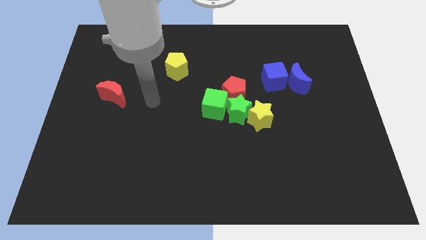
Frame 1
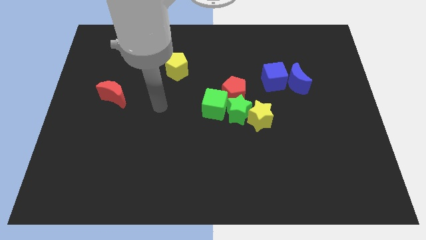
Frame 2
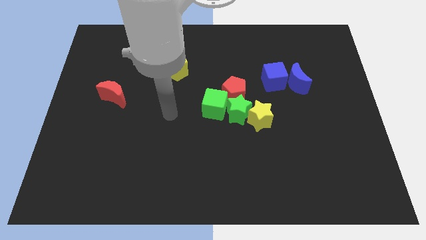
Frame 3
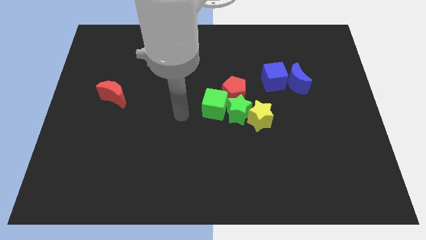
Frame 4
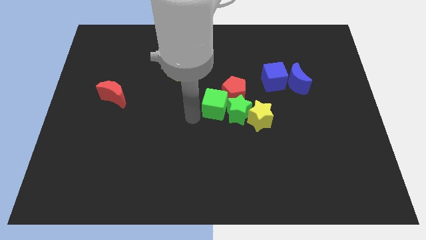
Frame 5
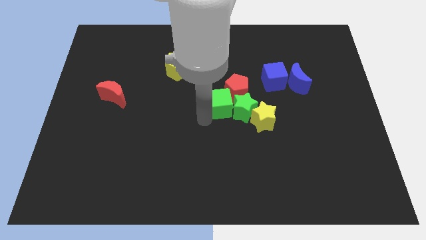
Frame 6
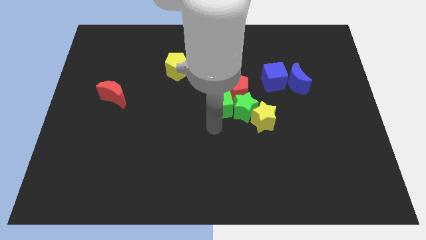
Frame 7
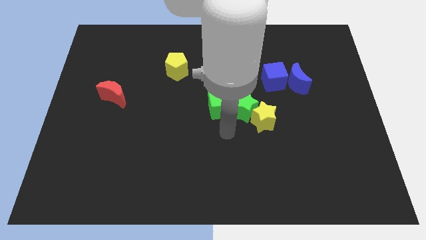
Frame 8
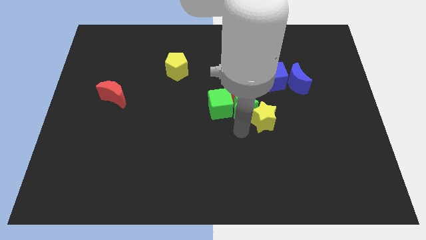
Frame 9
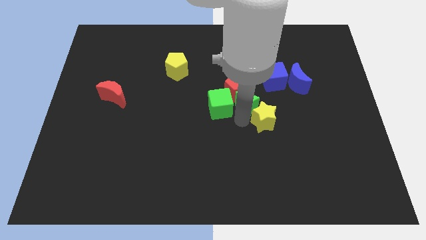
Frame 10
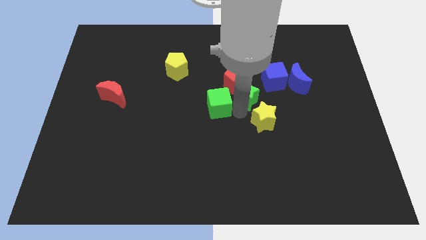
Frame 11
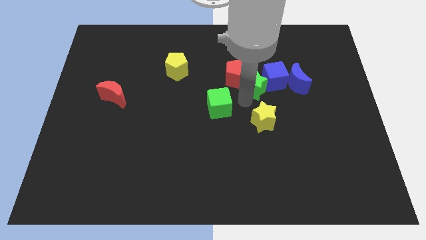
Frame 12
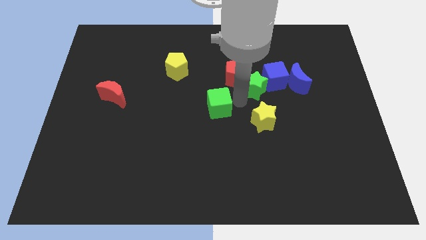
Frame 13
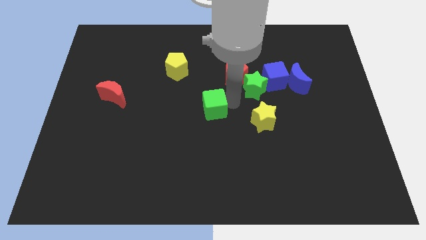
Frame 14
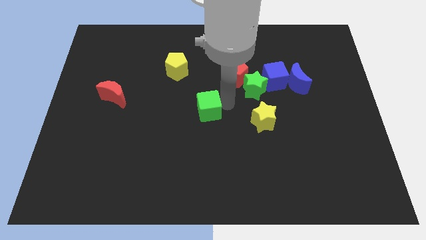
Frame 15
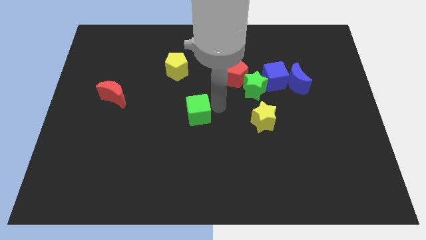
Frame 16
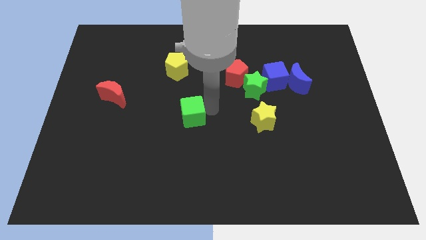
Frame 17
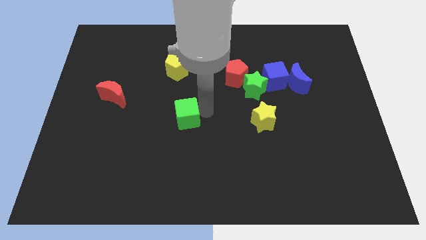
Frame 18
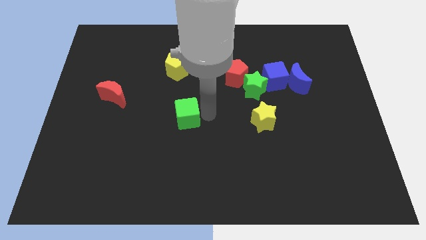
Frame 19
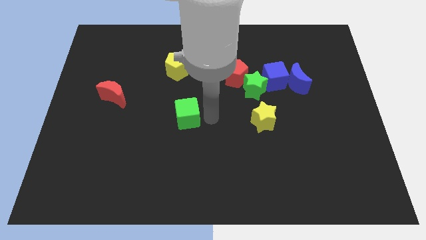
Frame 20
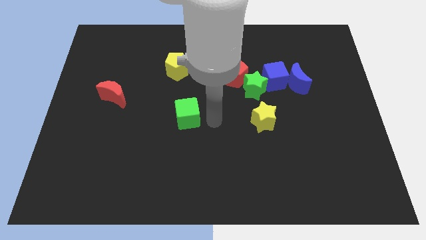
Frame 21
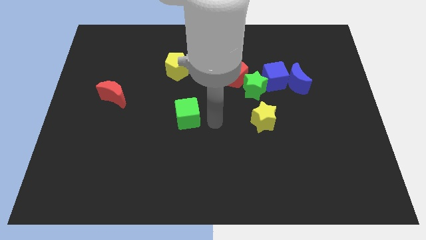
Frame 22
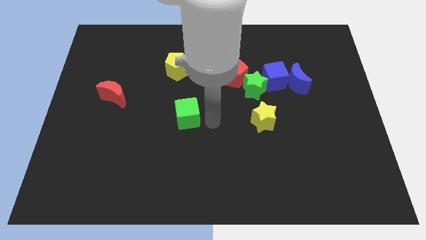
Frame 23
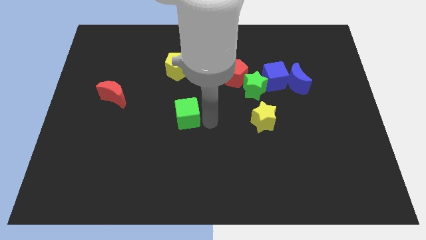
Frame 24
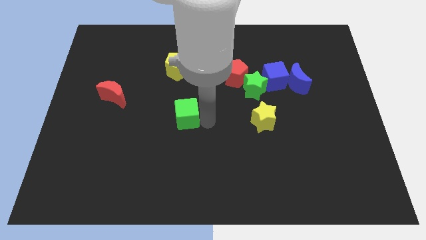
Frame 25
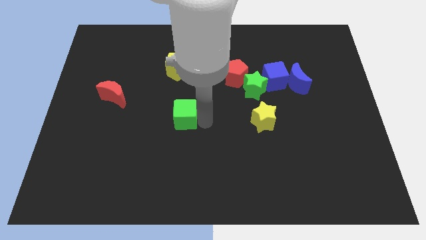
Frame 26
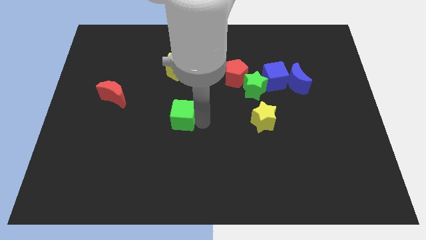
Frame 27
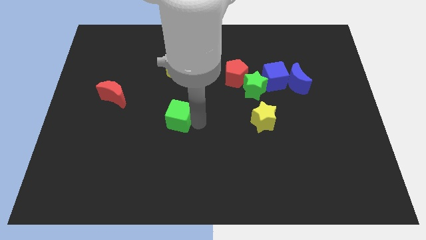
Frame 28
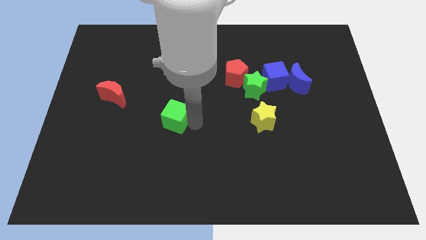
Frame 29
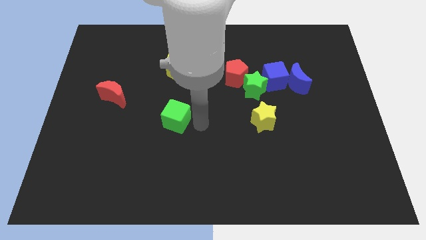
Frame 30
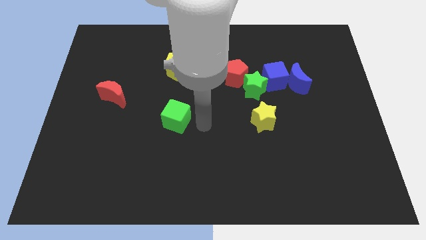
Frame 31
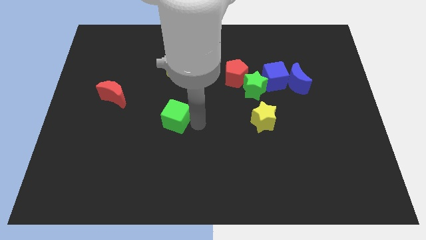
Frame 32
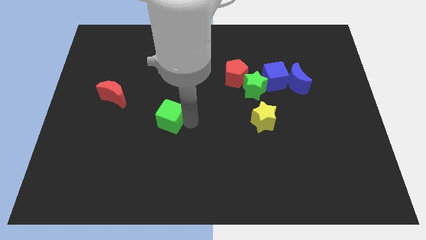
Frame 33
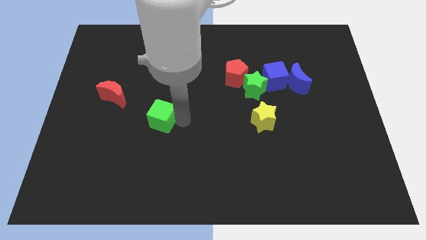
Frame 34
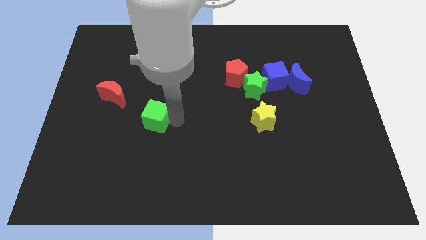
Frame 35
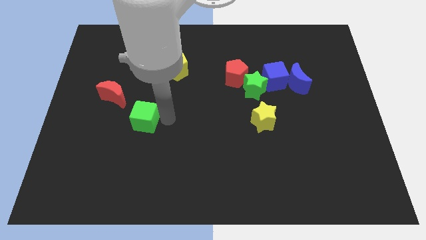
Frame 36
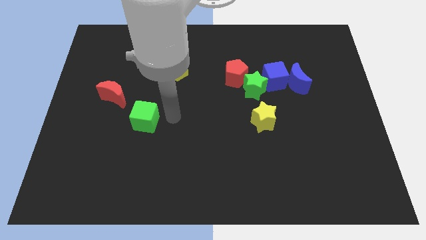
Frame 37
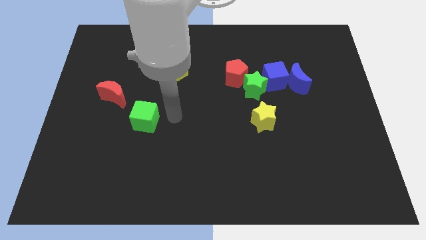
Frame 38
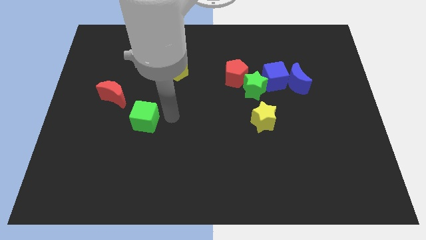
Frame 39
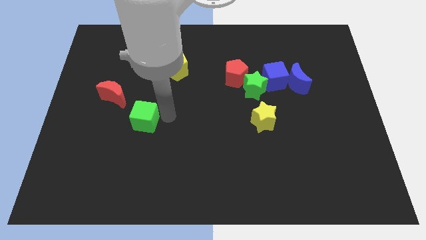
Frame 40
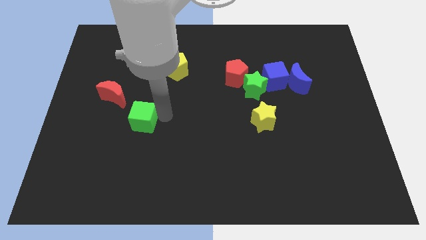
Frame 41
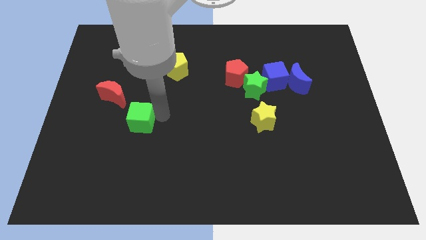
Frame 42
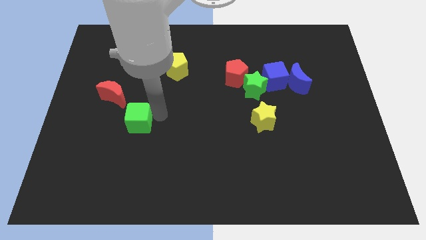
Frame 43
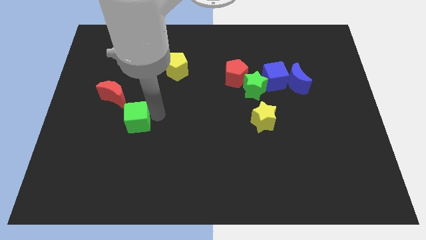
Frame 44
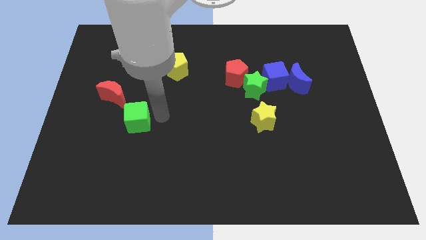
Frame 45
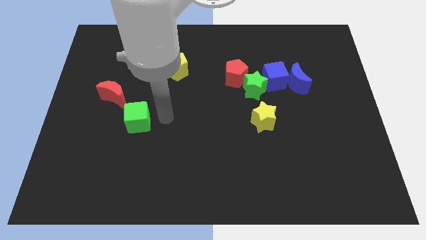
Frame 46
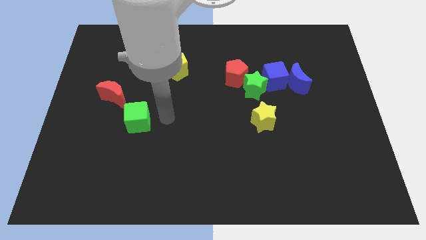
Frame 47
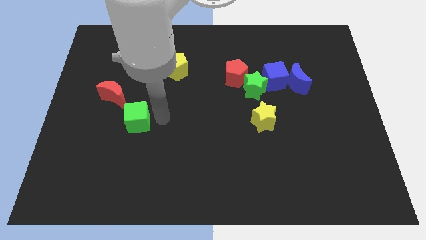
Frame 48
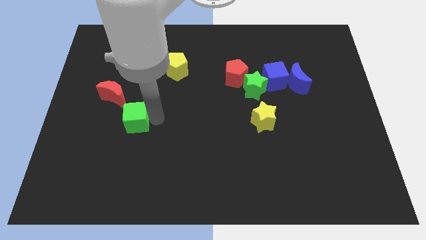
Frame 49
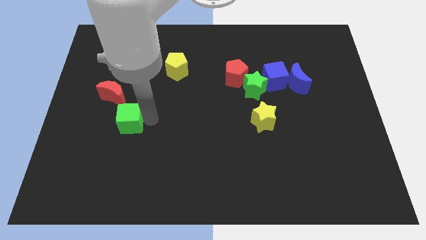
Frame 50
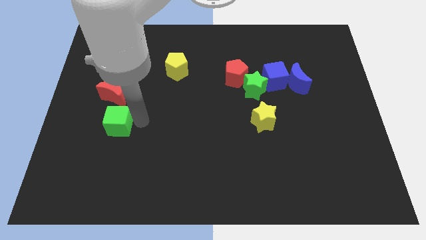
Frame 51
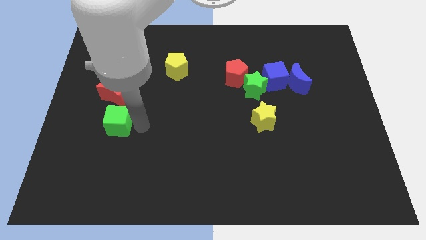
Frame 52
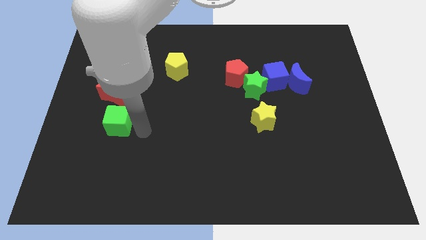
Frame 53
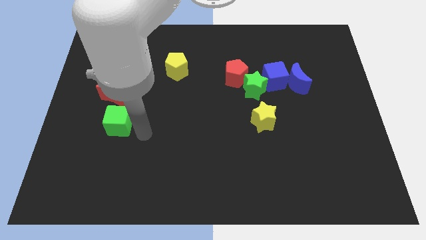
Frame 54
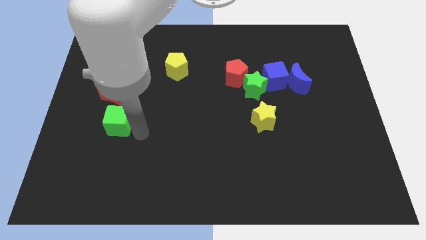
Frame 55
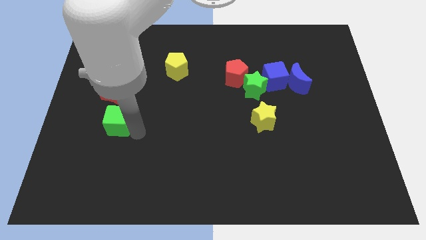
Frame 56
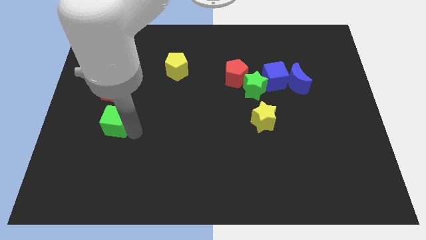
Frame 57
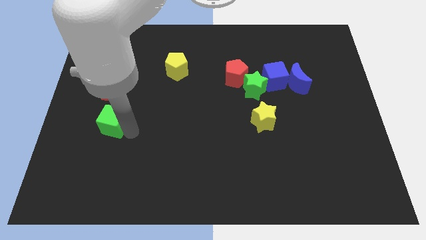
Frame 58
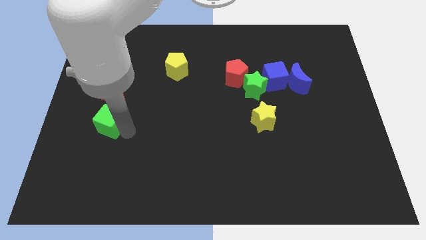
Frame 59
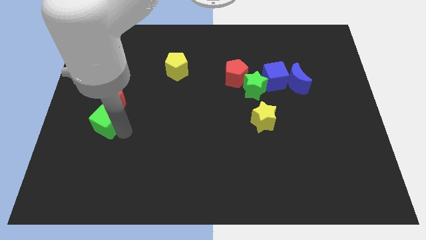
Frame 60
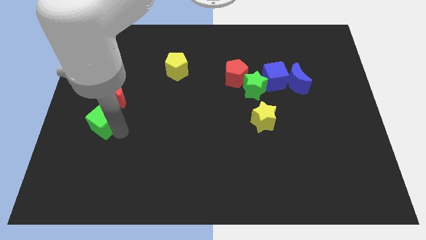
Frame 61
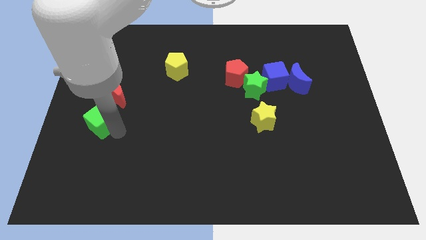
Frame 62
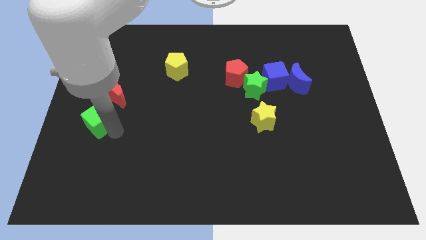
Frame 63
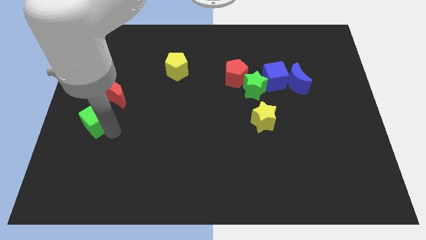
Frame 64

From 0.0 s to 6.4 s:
move the green cube to the left side
